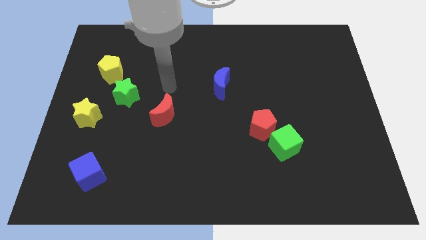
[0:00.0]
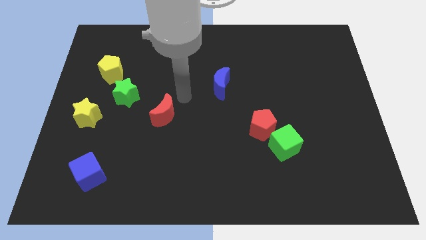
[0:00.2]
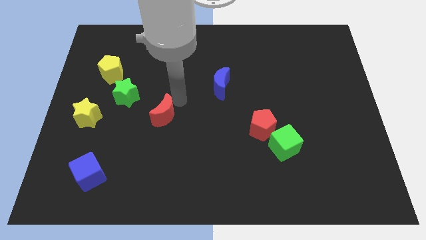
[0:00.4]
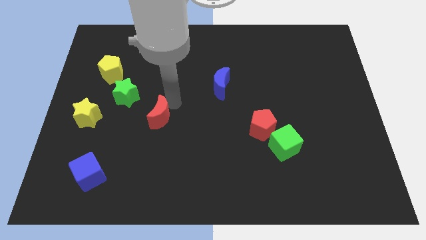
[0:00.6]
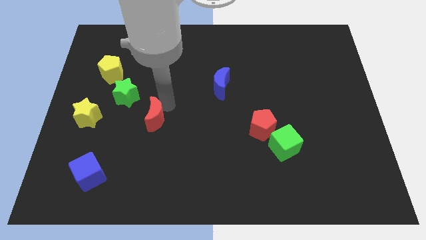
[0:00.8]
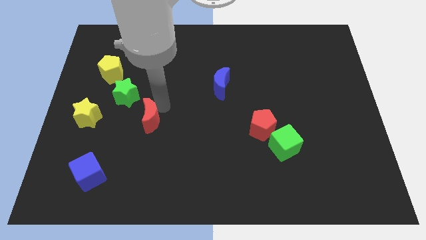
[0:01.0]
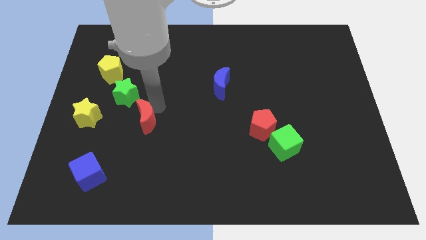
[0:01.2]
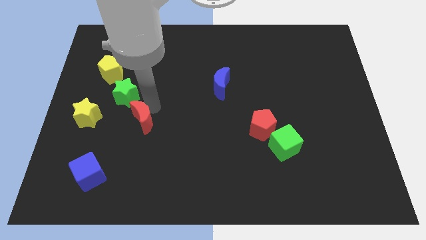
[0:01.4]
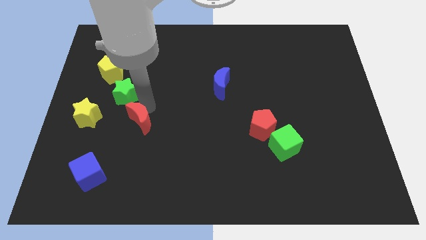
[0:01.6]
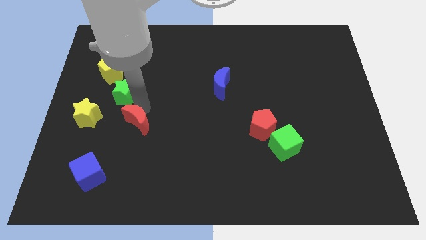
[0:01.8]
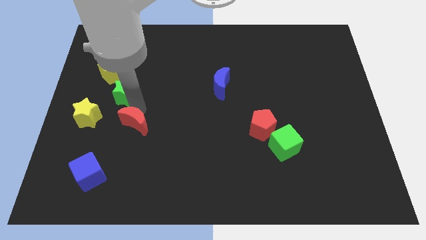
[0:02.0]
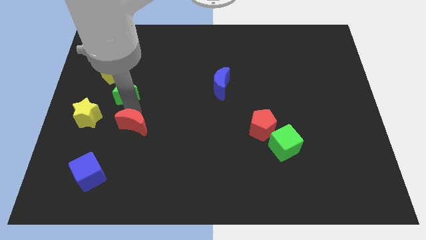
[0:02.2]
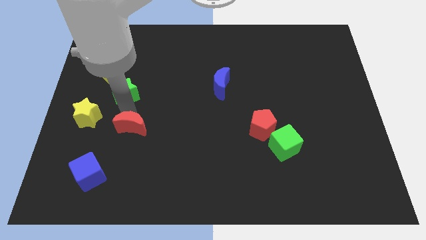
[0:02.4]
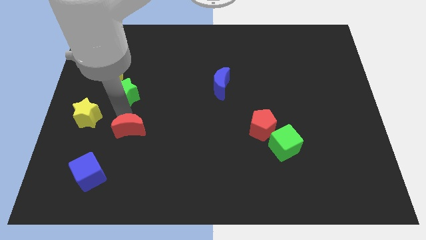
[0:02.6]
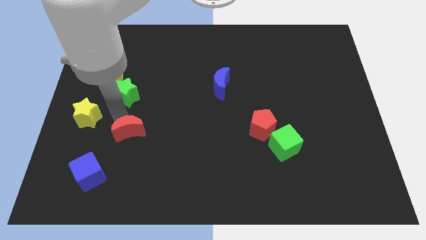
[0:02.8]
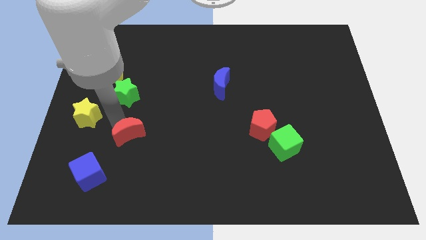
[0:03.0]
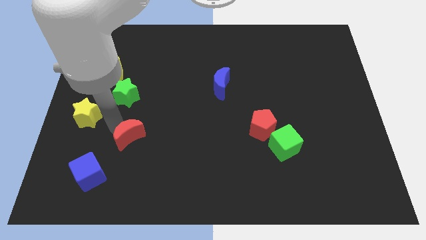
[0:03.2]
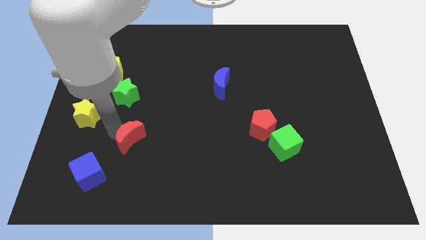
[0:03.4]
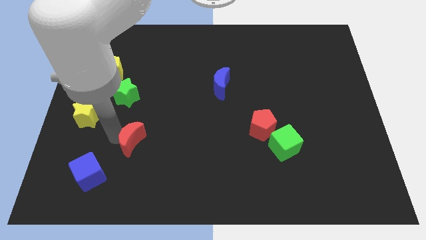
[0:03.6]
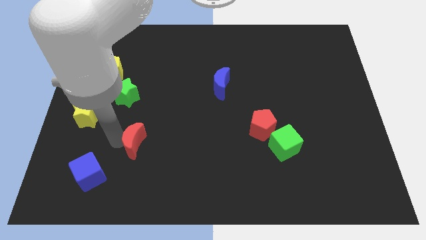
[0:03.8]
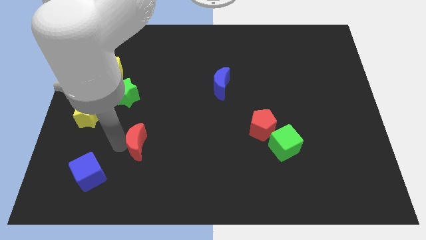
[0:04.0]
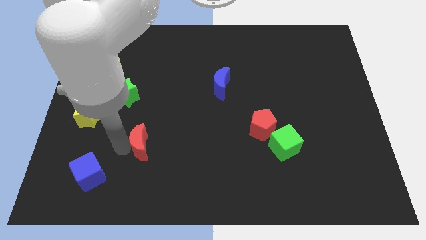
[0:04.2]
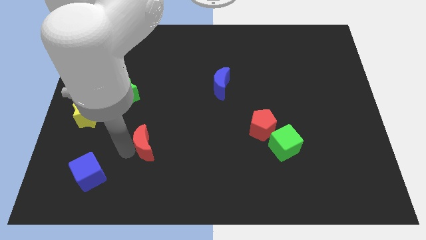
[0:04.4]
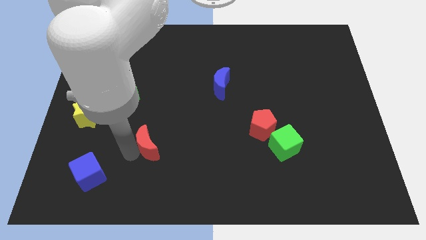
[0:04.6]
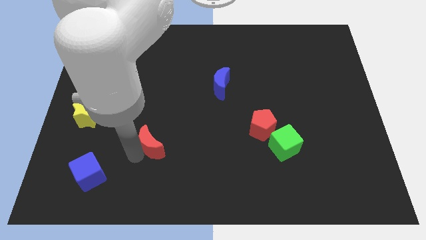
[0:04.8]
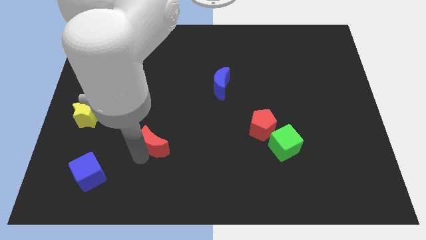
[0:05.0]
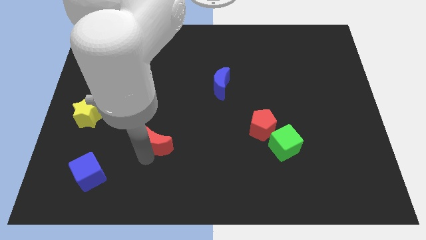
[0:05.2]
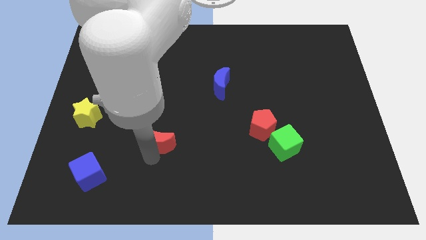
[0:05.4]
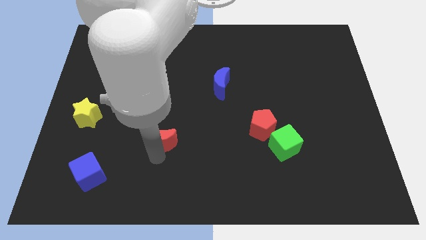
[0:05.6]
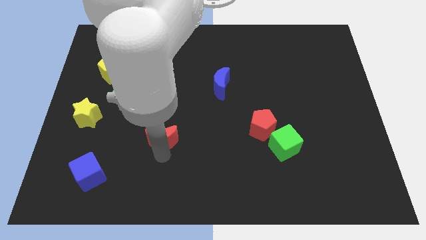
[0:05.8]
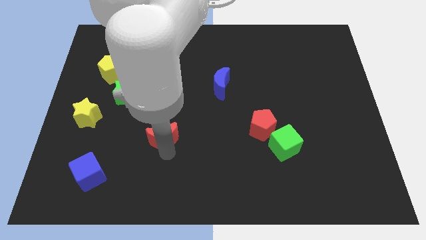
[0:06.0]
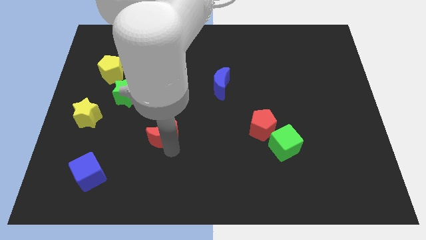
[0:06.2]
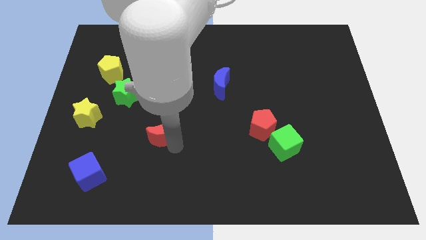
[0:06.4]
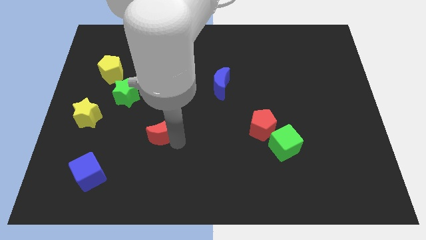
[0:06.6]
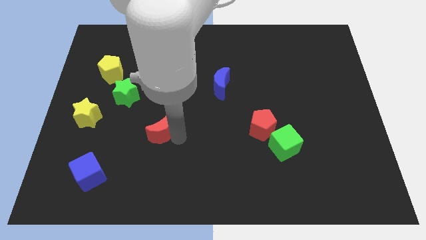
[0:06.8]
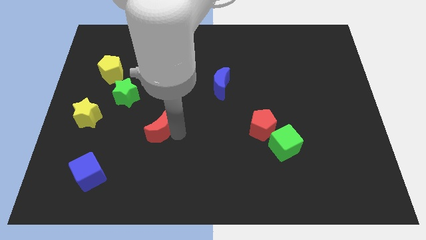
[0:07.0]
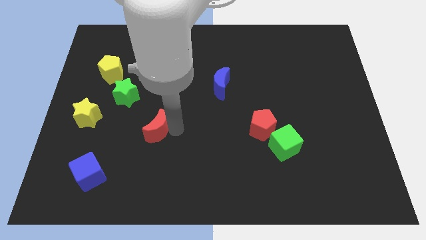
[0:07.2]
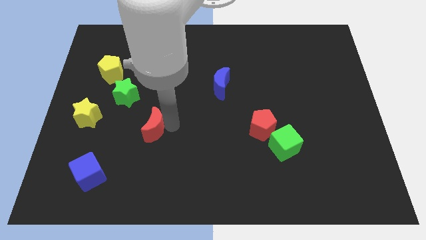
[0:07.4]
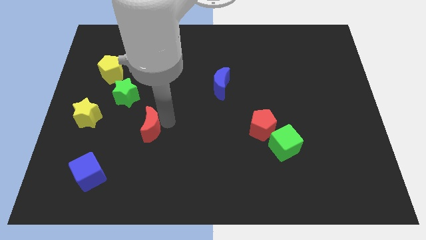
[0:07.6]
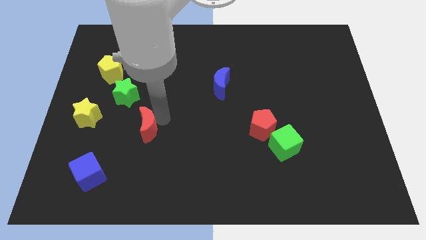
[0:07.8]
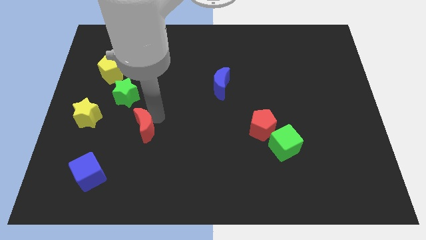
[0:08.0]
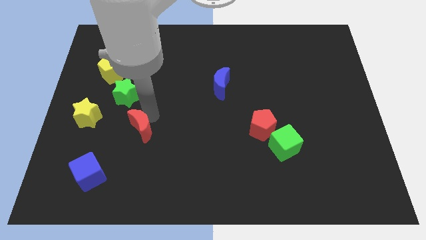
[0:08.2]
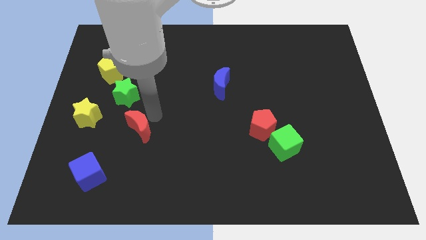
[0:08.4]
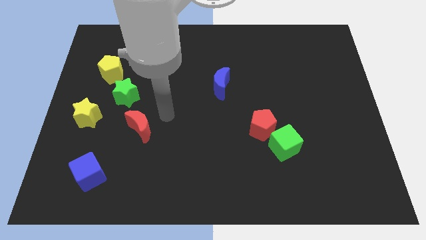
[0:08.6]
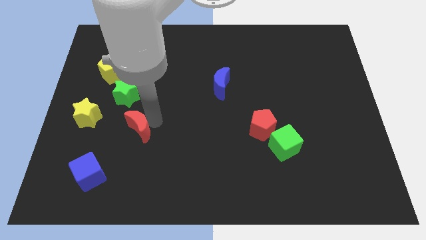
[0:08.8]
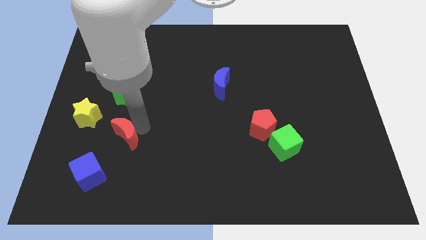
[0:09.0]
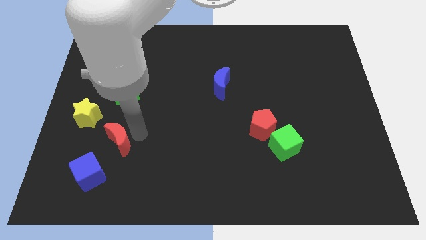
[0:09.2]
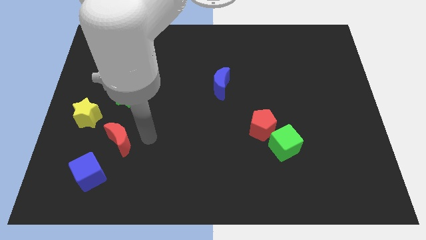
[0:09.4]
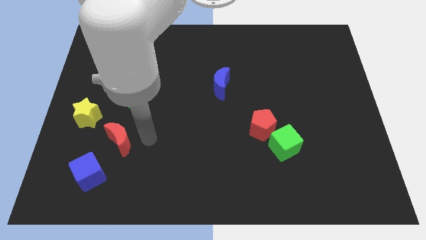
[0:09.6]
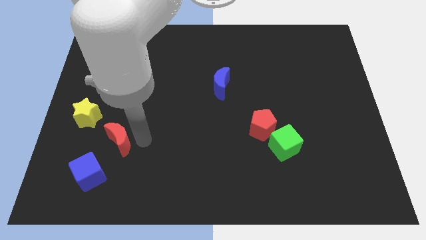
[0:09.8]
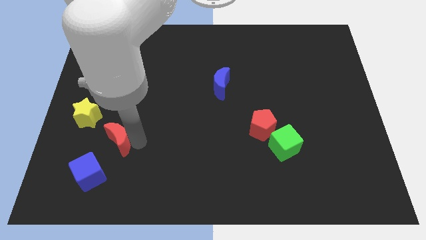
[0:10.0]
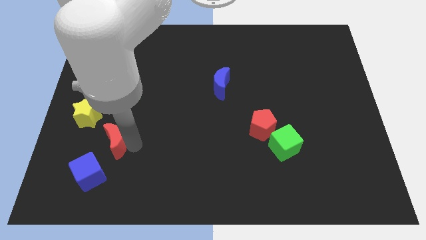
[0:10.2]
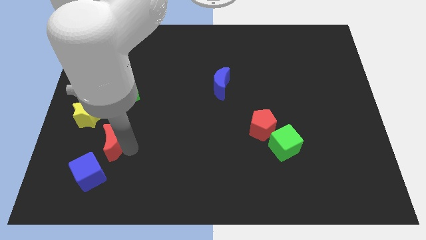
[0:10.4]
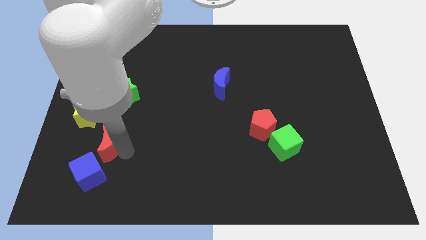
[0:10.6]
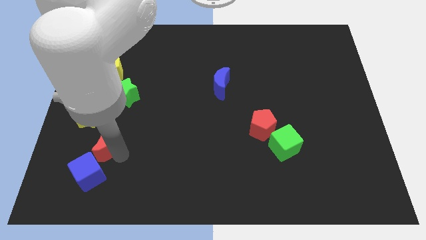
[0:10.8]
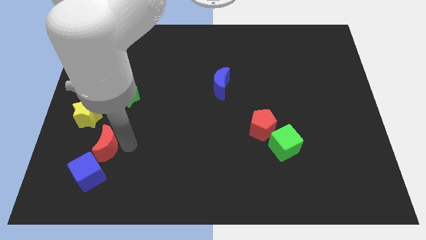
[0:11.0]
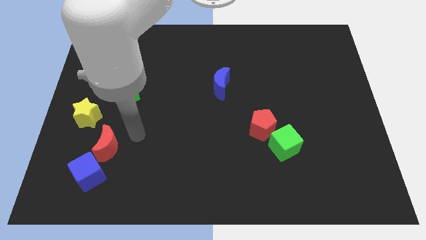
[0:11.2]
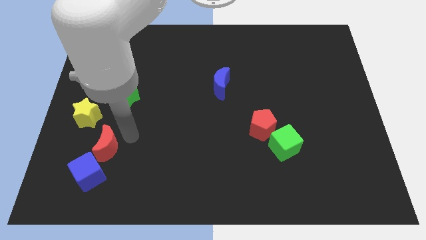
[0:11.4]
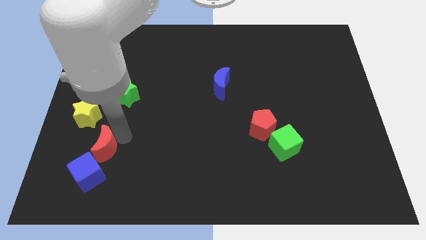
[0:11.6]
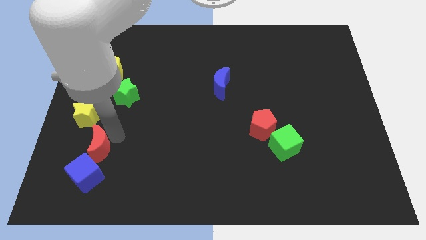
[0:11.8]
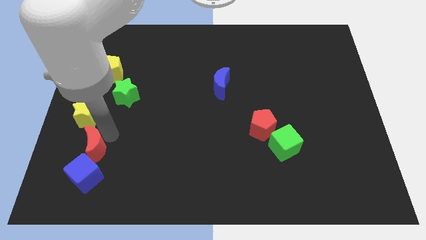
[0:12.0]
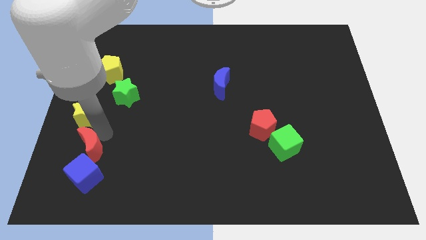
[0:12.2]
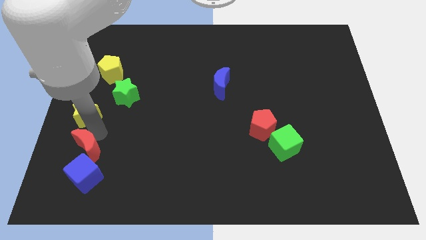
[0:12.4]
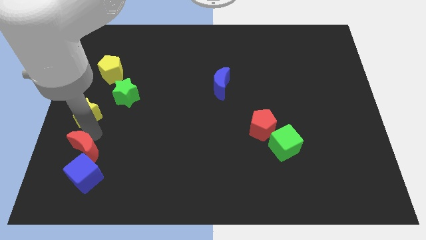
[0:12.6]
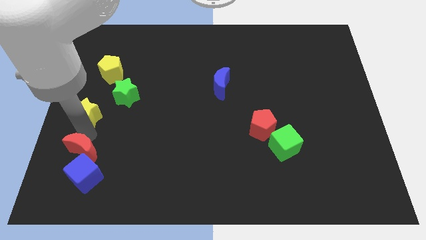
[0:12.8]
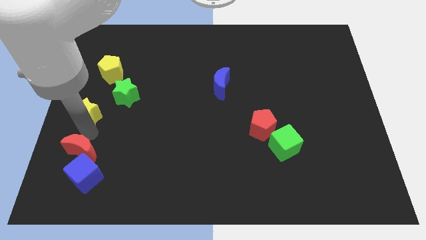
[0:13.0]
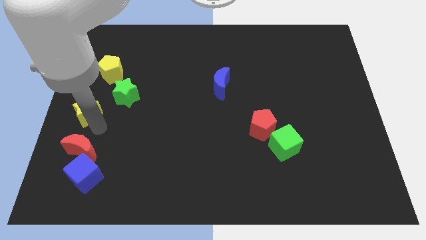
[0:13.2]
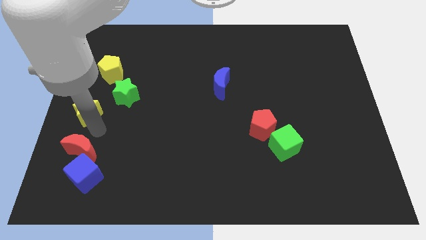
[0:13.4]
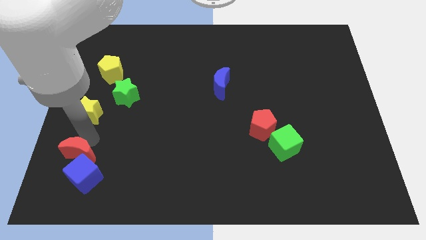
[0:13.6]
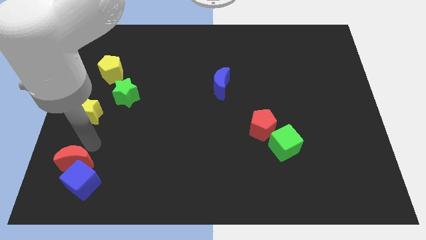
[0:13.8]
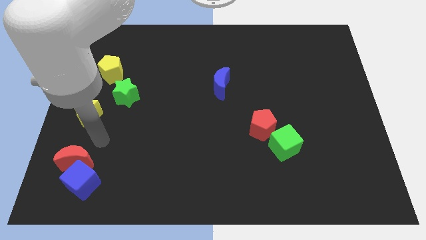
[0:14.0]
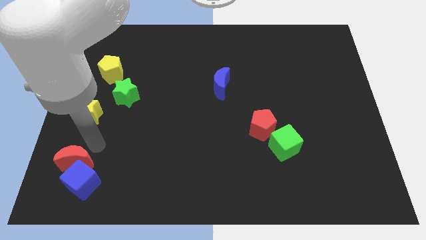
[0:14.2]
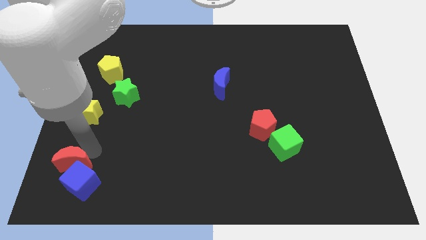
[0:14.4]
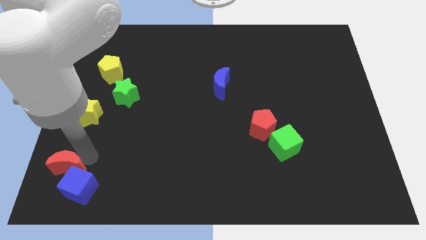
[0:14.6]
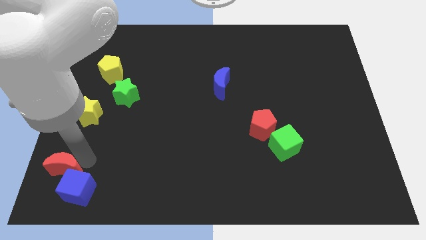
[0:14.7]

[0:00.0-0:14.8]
slide the red moon to the bottom left
